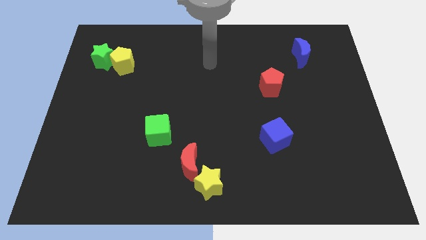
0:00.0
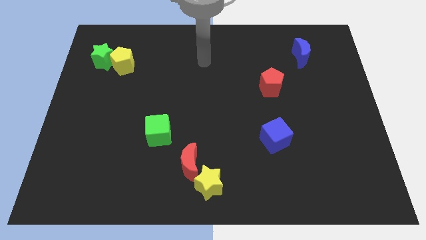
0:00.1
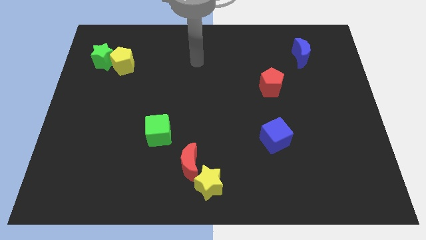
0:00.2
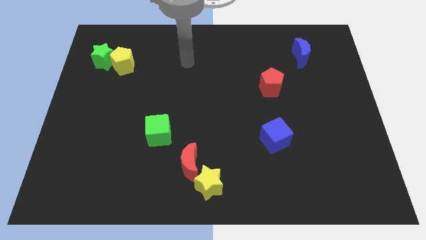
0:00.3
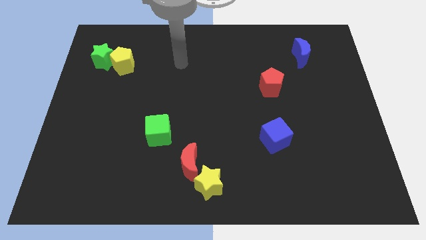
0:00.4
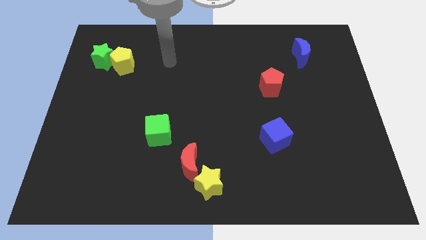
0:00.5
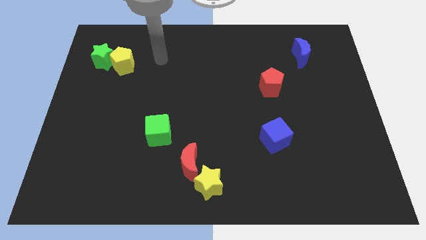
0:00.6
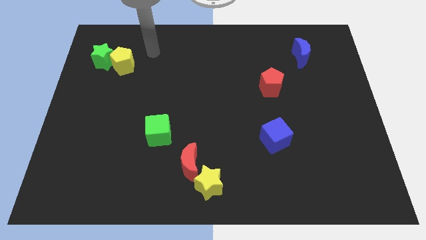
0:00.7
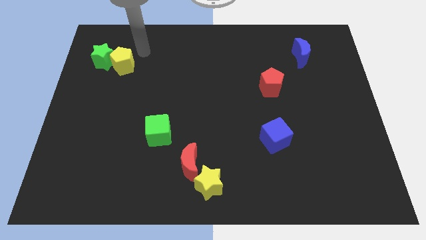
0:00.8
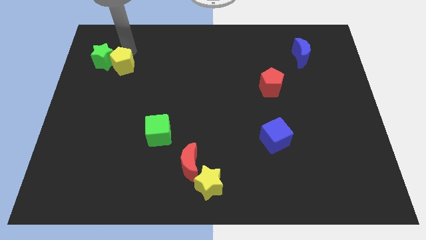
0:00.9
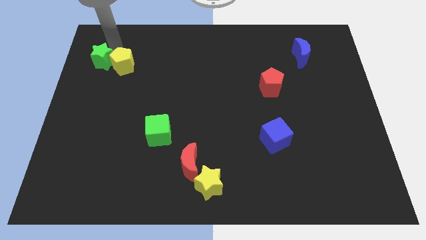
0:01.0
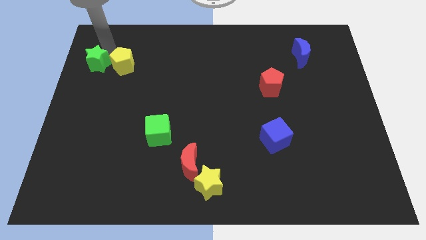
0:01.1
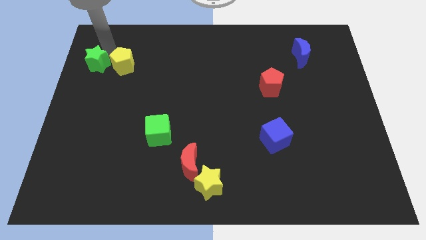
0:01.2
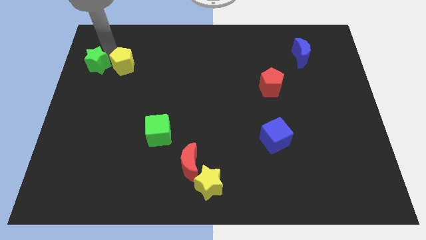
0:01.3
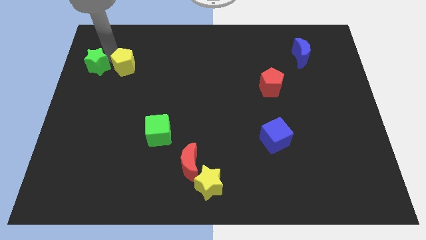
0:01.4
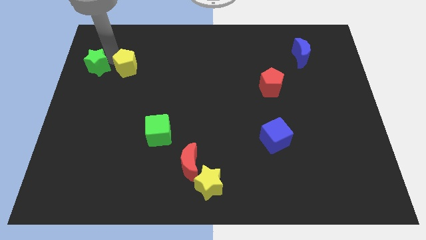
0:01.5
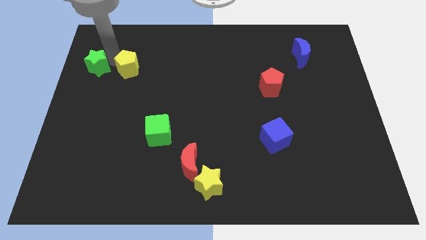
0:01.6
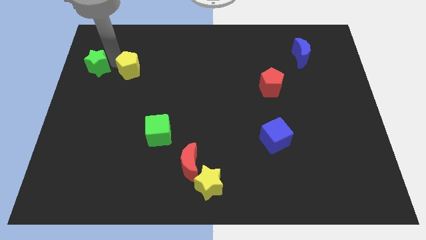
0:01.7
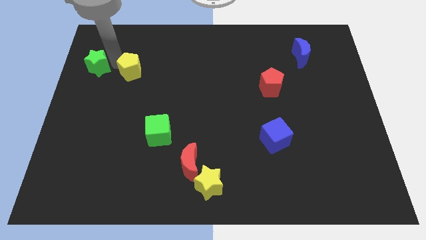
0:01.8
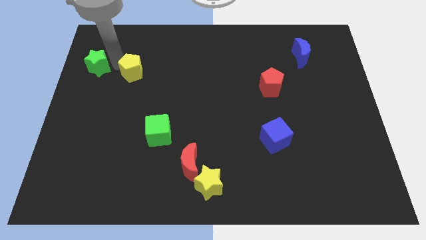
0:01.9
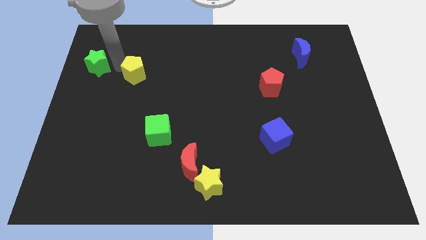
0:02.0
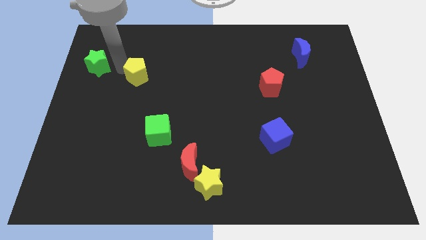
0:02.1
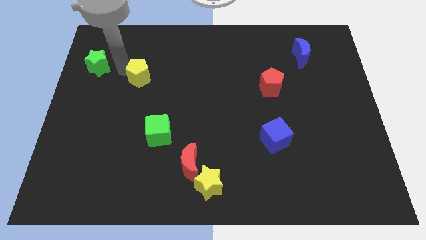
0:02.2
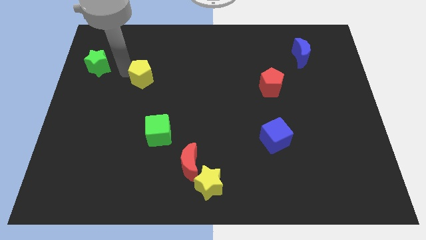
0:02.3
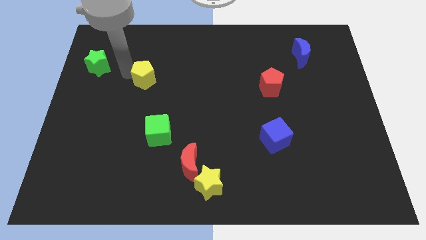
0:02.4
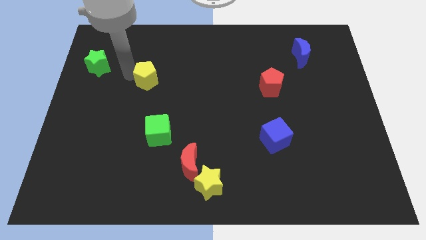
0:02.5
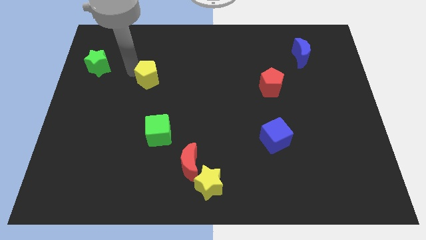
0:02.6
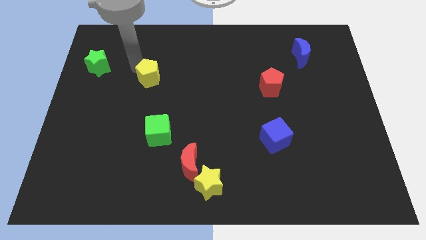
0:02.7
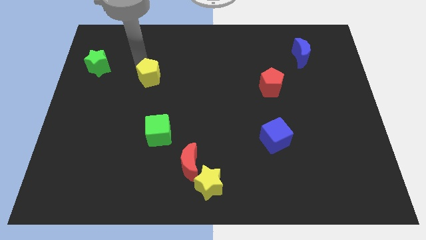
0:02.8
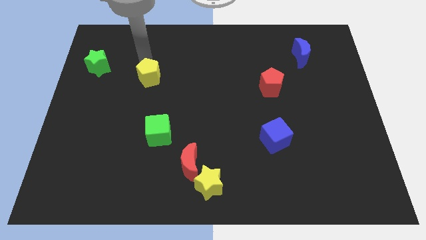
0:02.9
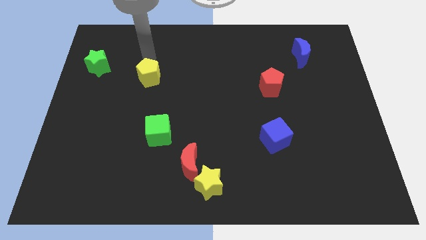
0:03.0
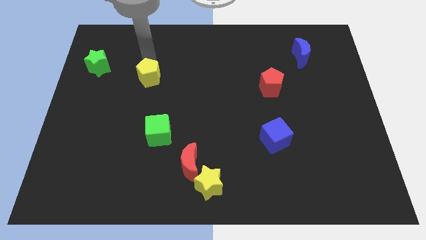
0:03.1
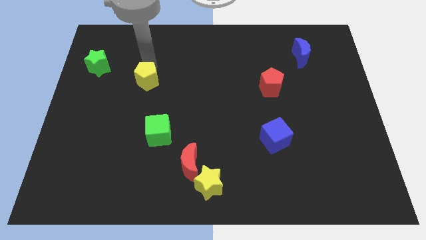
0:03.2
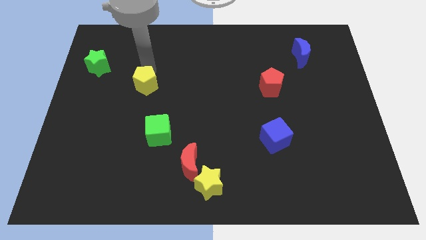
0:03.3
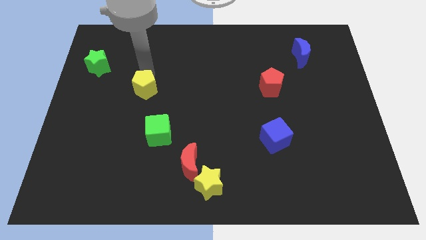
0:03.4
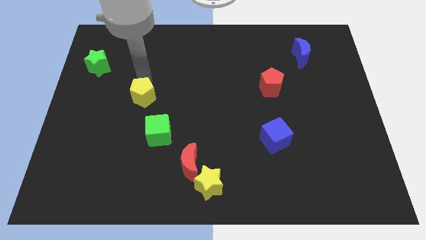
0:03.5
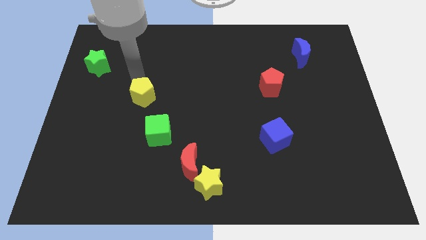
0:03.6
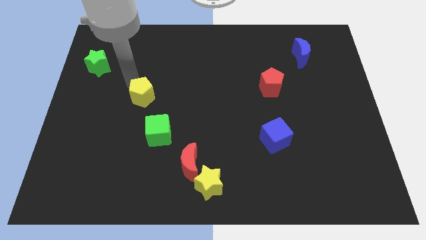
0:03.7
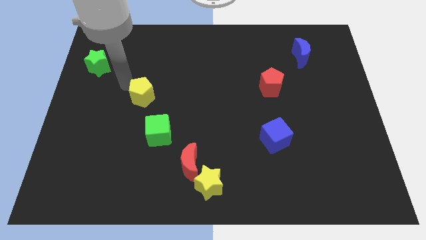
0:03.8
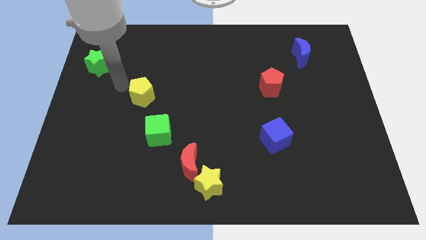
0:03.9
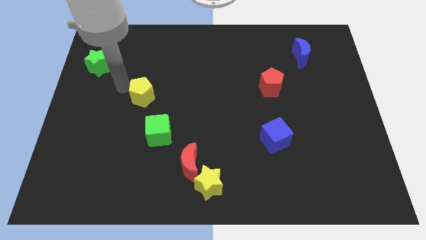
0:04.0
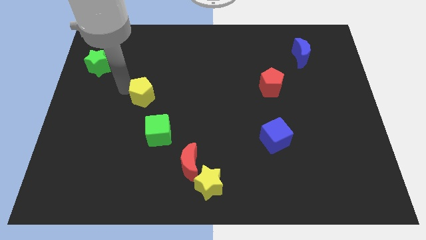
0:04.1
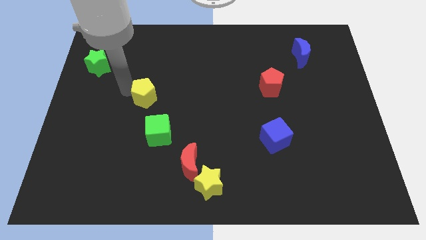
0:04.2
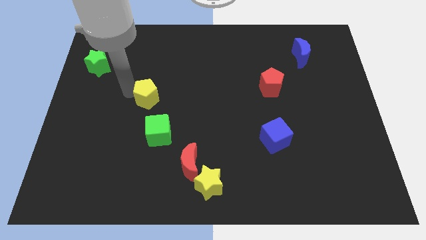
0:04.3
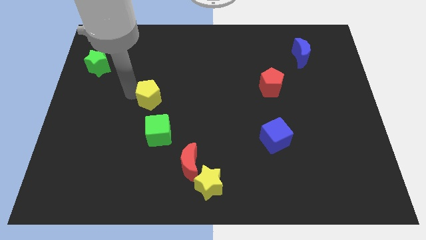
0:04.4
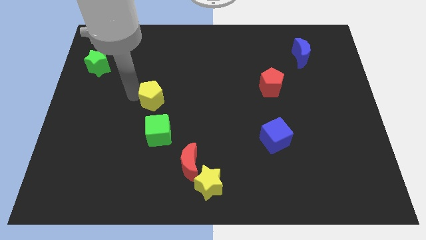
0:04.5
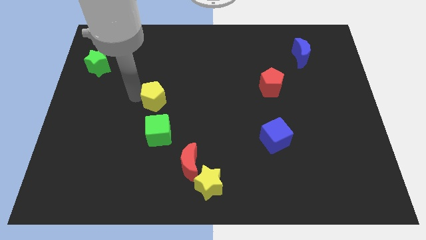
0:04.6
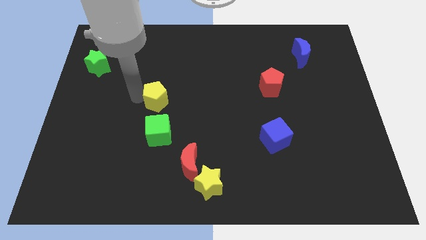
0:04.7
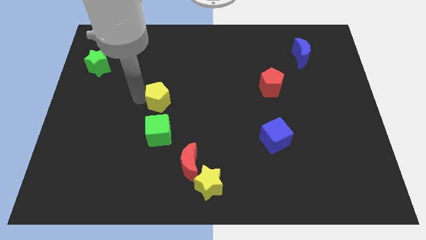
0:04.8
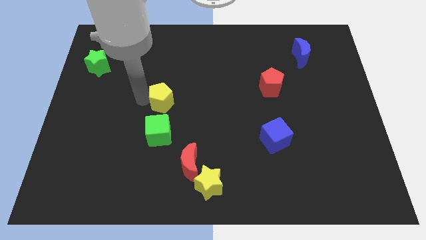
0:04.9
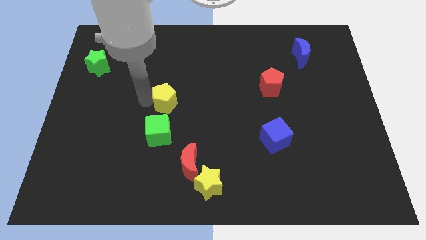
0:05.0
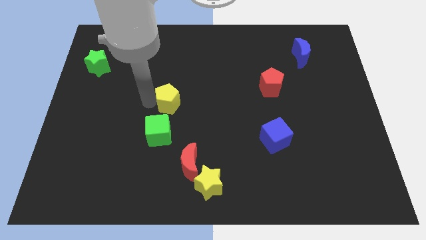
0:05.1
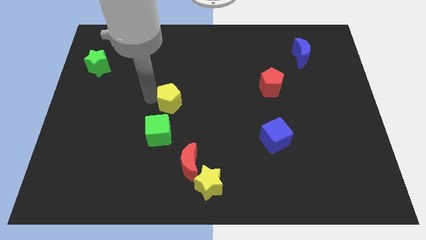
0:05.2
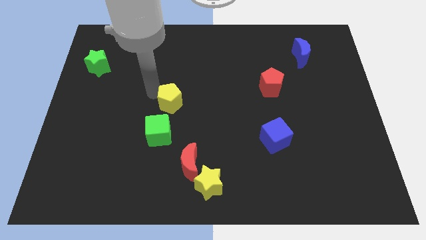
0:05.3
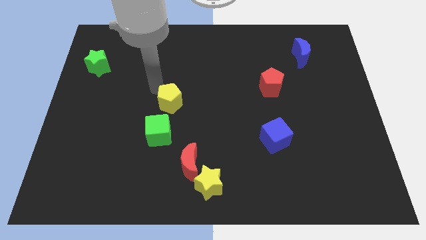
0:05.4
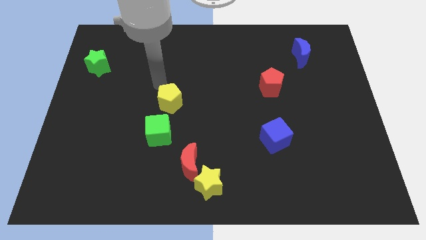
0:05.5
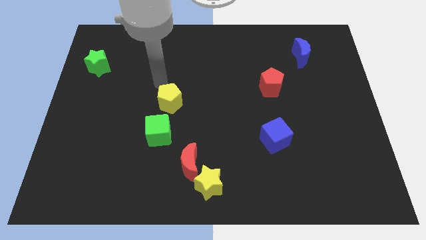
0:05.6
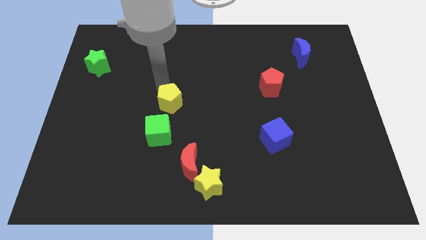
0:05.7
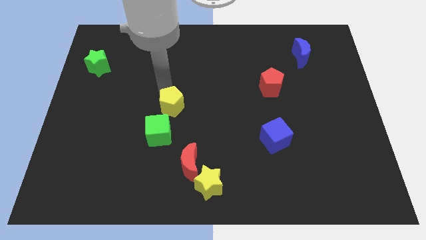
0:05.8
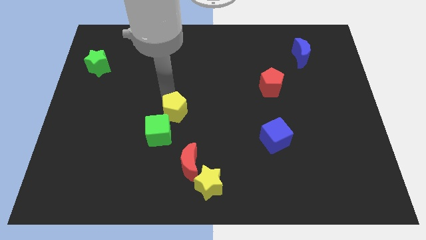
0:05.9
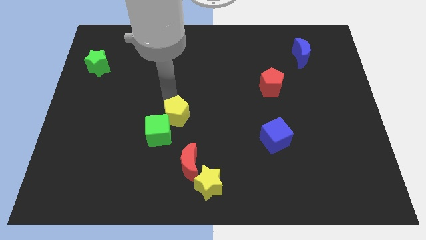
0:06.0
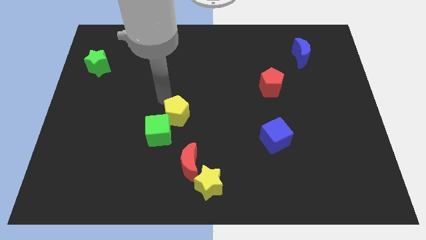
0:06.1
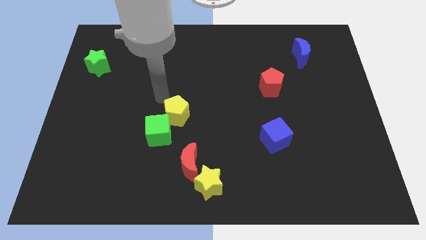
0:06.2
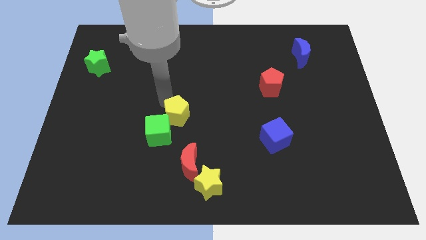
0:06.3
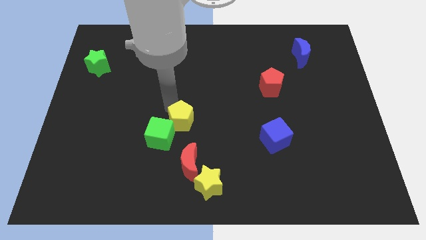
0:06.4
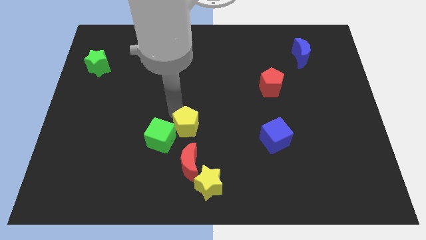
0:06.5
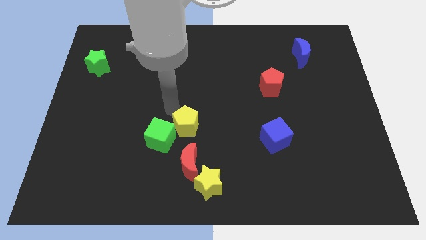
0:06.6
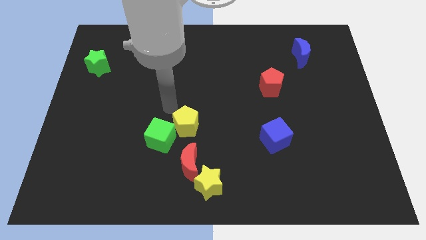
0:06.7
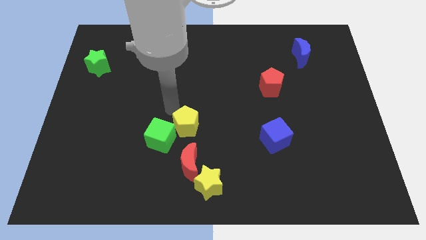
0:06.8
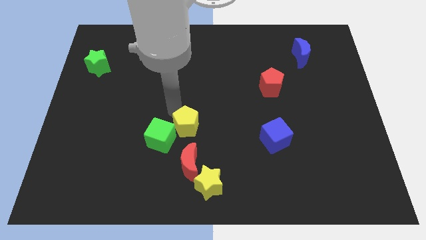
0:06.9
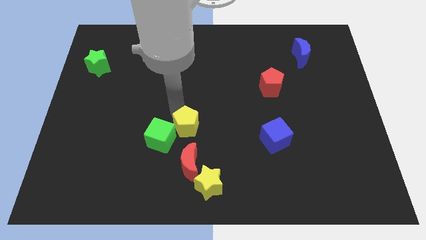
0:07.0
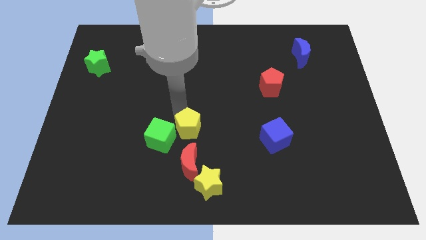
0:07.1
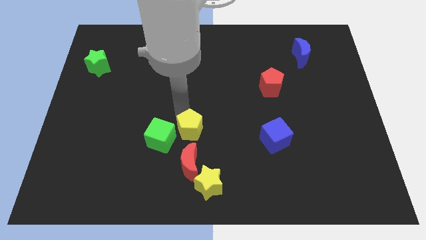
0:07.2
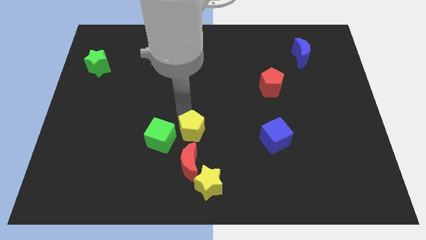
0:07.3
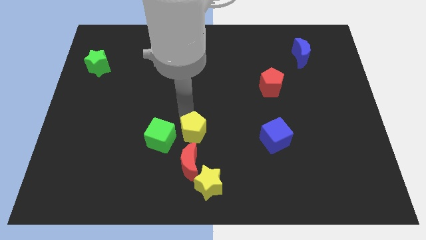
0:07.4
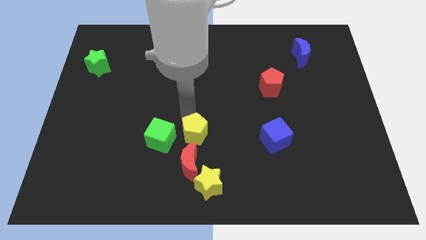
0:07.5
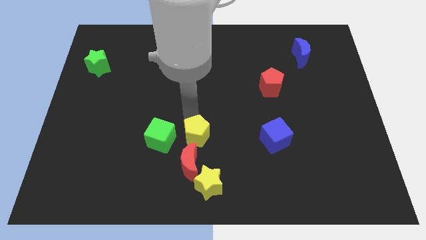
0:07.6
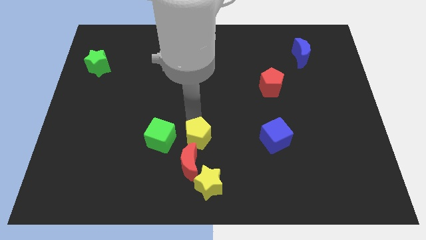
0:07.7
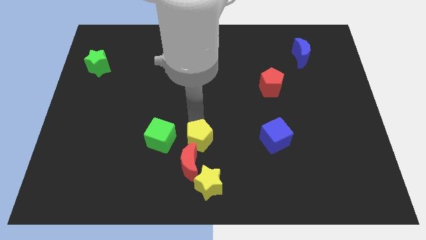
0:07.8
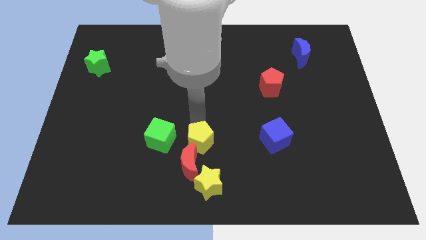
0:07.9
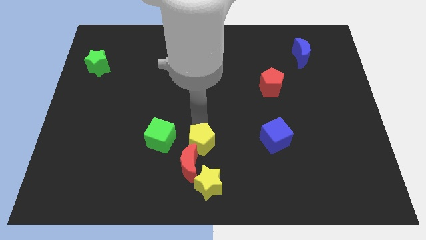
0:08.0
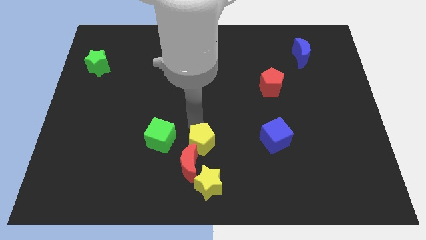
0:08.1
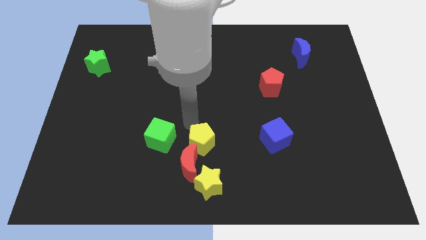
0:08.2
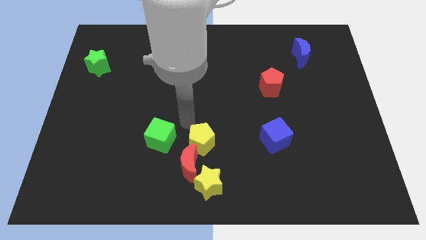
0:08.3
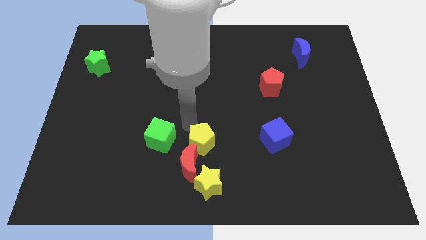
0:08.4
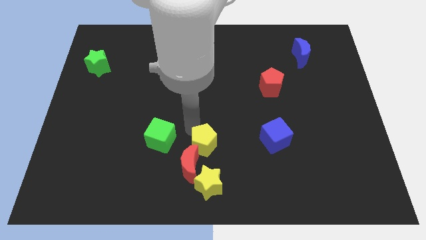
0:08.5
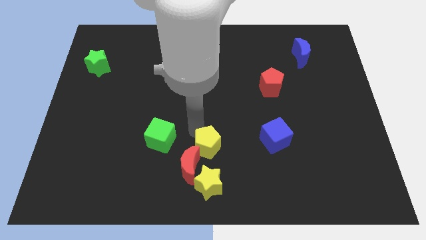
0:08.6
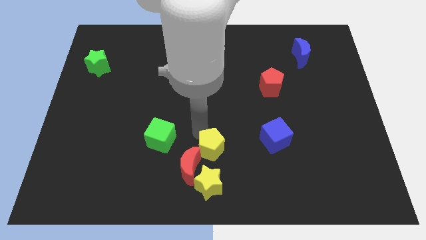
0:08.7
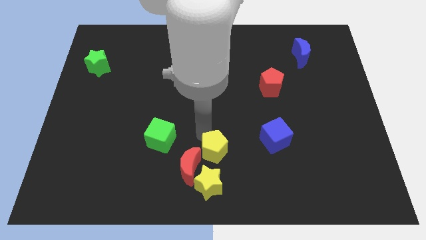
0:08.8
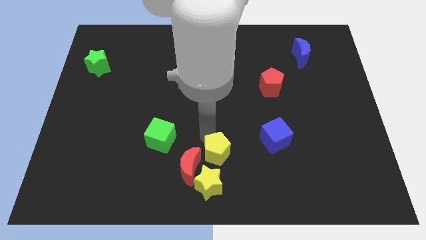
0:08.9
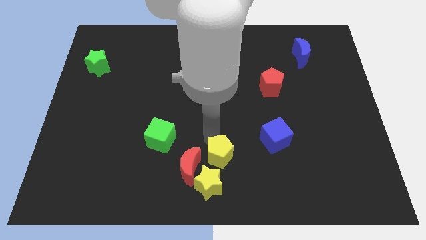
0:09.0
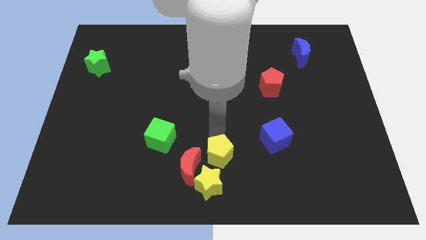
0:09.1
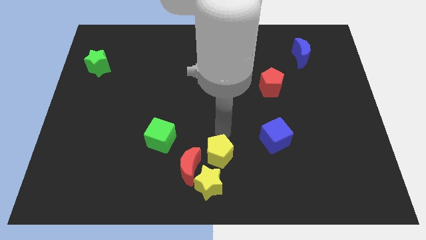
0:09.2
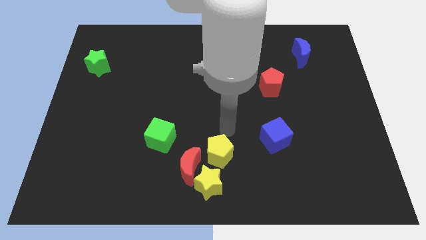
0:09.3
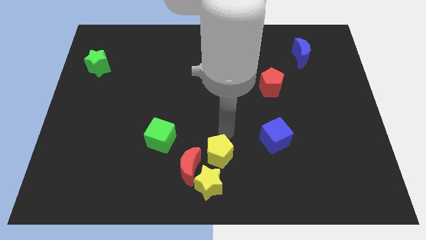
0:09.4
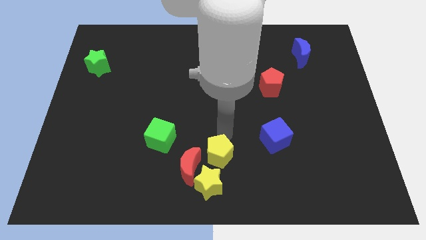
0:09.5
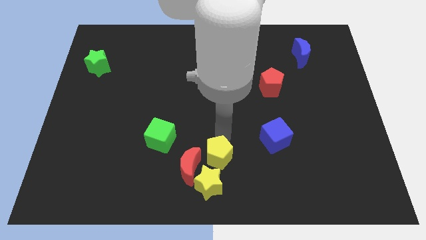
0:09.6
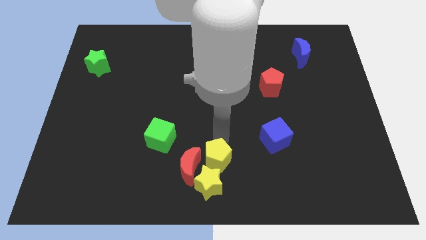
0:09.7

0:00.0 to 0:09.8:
put the yellow pentagon towards the yellow star
